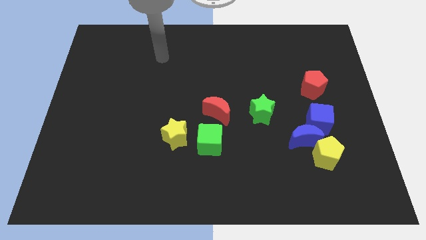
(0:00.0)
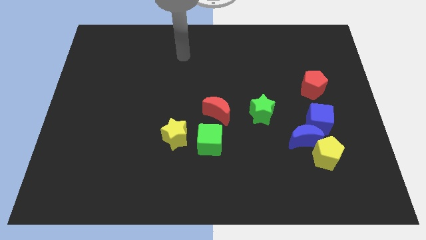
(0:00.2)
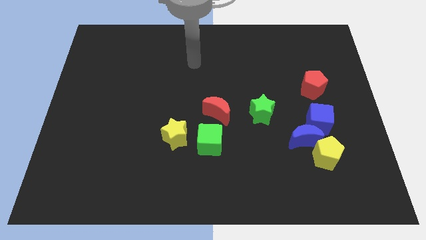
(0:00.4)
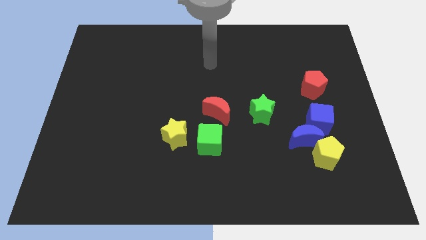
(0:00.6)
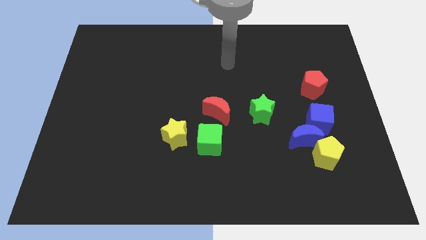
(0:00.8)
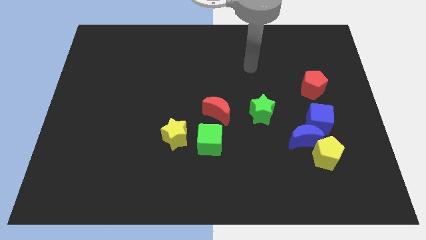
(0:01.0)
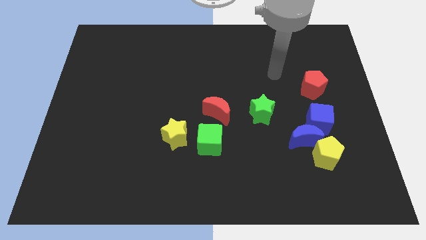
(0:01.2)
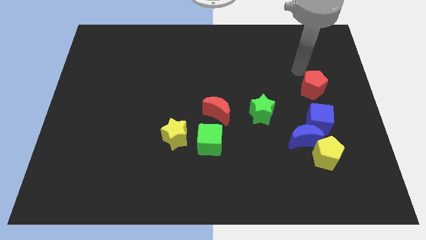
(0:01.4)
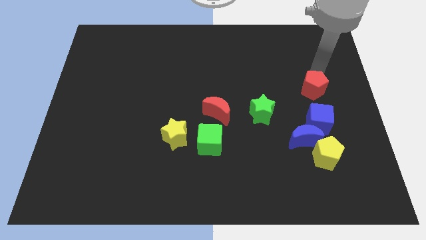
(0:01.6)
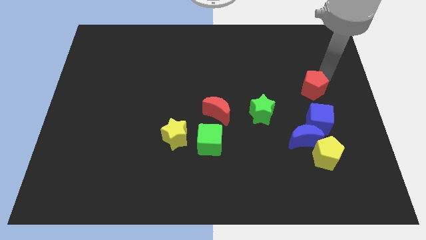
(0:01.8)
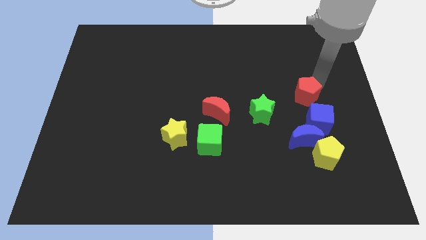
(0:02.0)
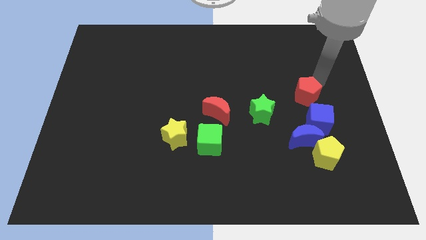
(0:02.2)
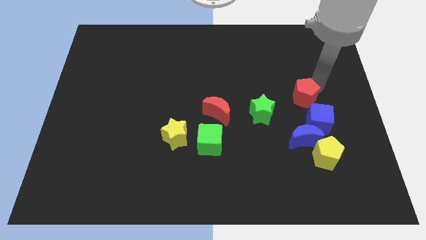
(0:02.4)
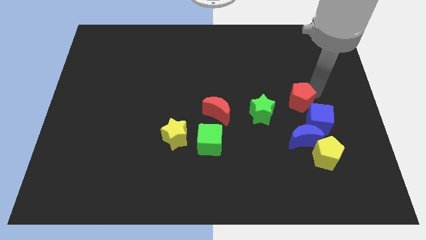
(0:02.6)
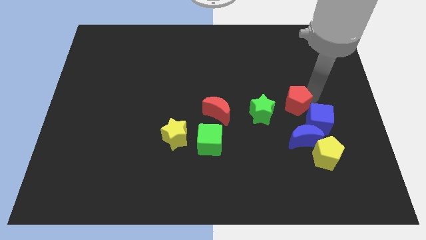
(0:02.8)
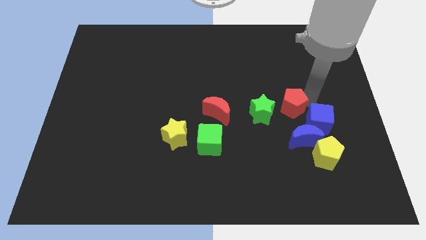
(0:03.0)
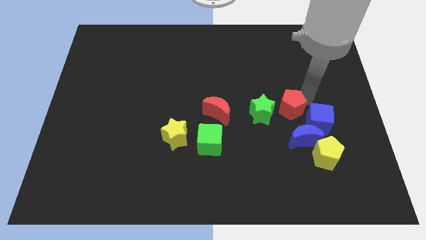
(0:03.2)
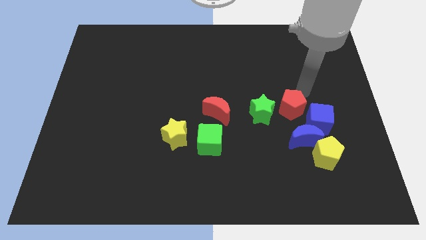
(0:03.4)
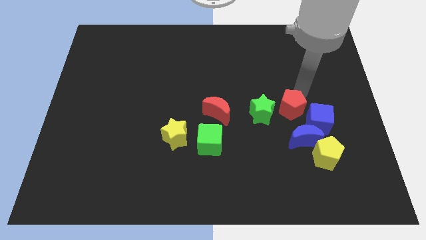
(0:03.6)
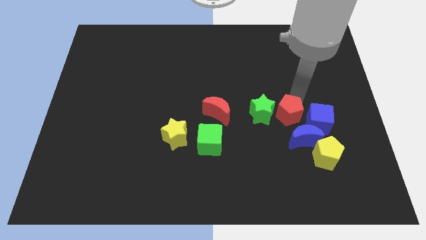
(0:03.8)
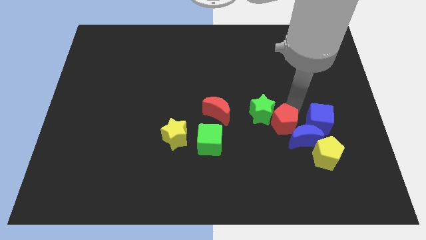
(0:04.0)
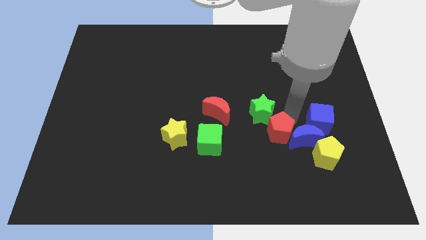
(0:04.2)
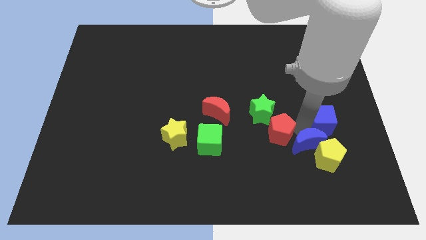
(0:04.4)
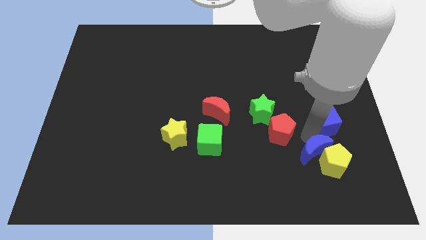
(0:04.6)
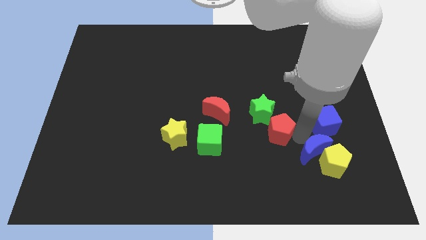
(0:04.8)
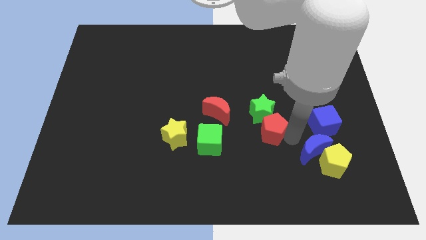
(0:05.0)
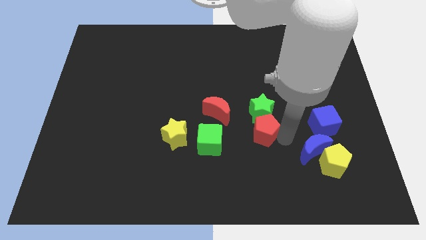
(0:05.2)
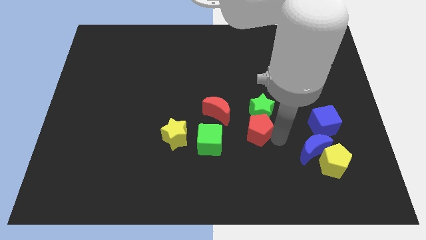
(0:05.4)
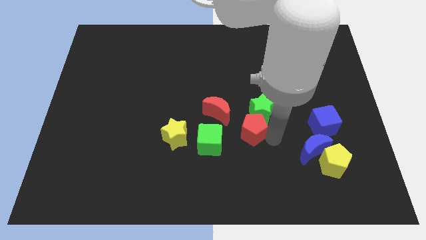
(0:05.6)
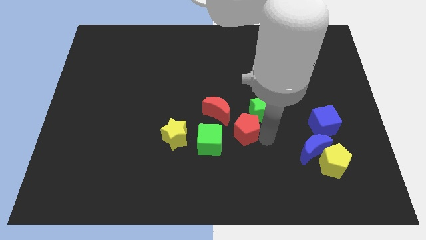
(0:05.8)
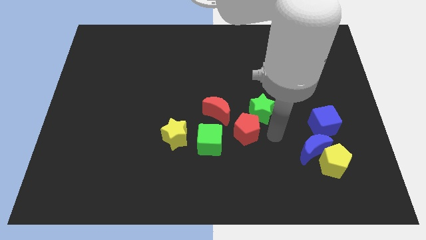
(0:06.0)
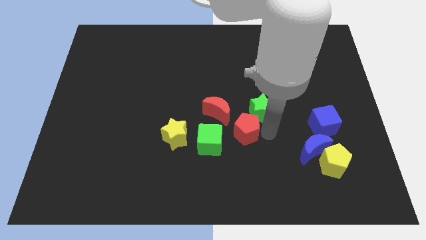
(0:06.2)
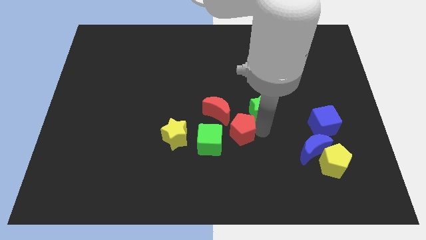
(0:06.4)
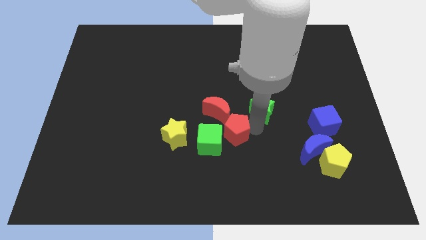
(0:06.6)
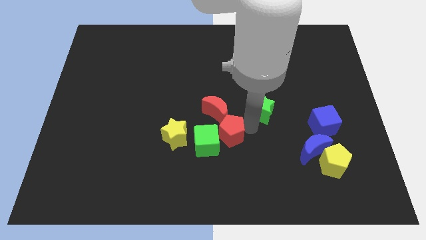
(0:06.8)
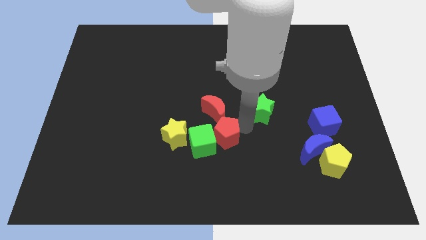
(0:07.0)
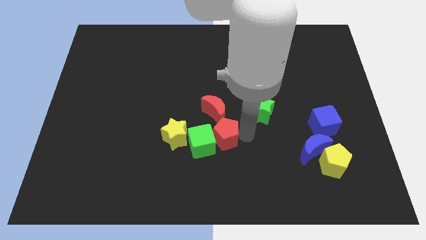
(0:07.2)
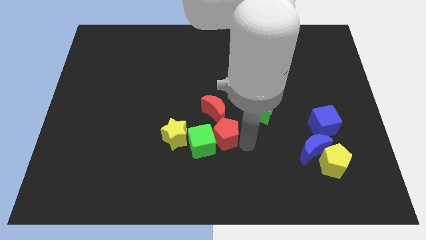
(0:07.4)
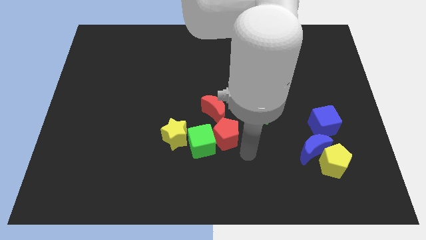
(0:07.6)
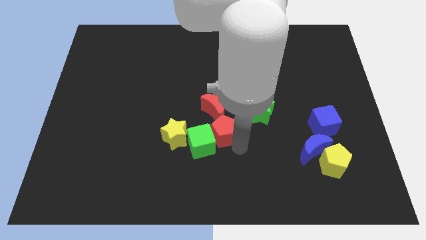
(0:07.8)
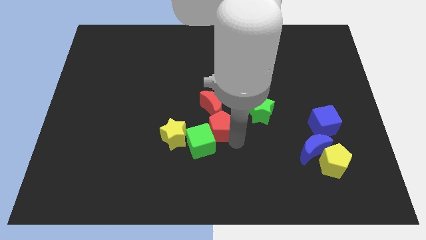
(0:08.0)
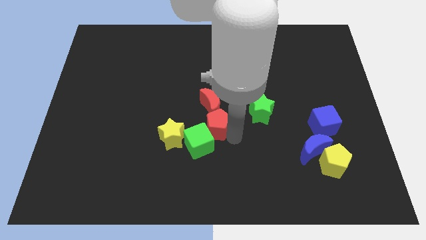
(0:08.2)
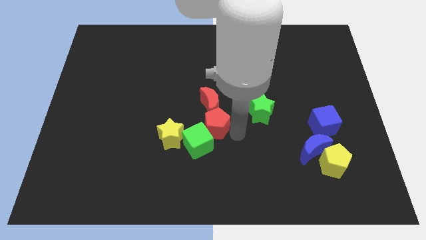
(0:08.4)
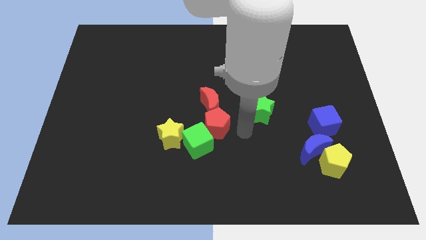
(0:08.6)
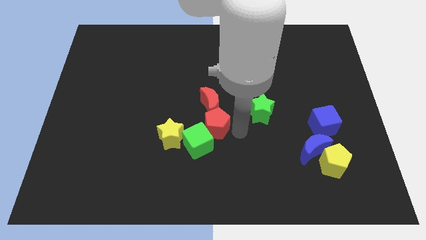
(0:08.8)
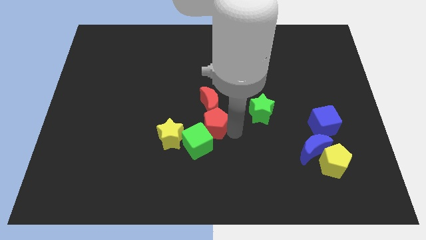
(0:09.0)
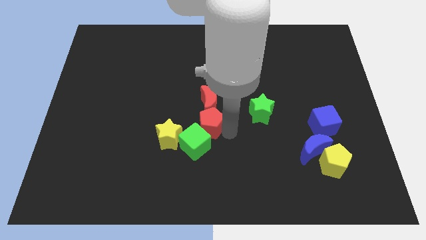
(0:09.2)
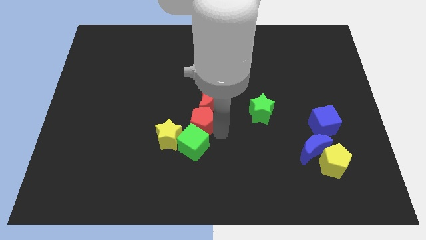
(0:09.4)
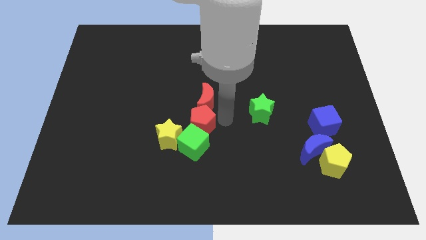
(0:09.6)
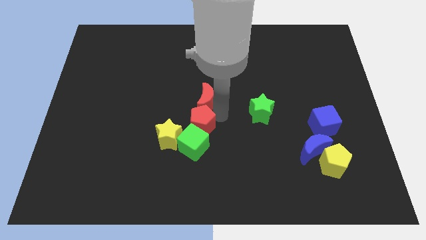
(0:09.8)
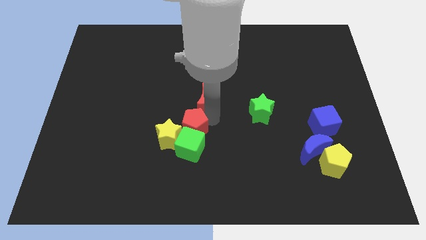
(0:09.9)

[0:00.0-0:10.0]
push the red pentagon towards the yellow star

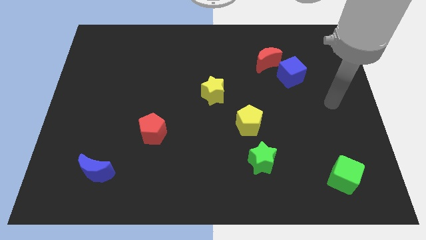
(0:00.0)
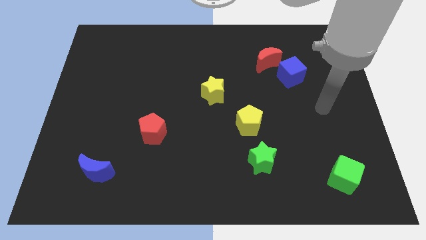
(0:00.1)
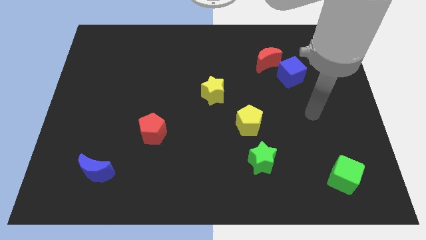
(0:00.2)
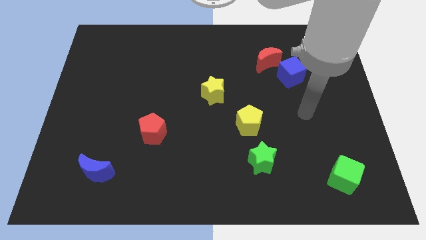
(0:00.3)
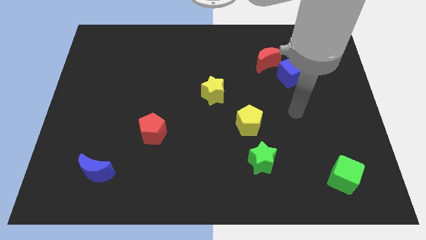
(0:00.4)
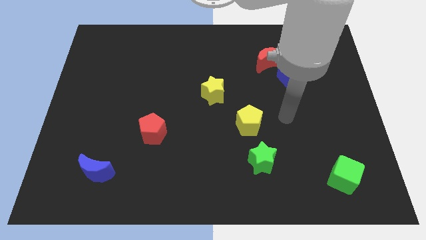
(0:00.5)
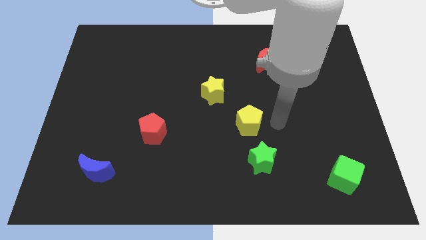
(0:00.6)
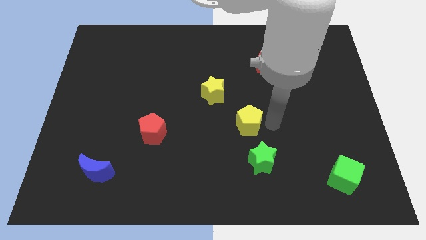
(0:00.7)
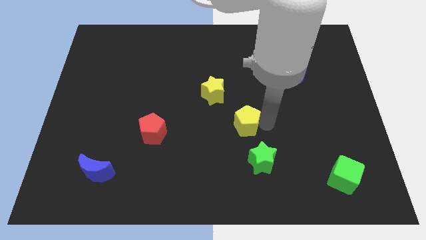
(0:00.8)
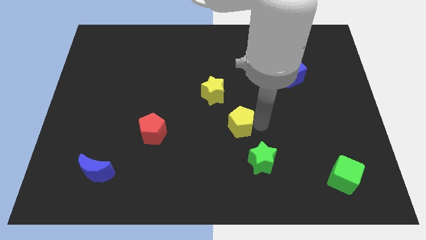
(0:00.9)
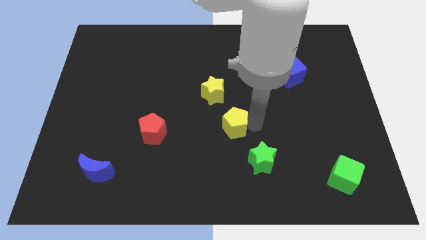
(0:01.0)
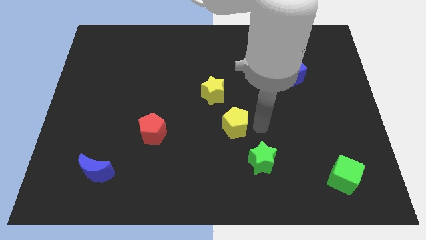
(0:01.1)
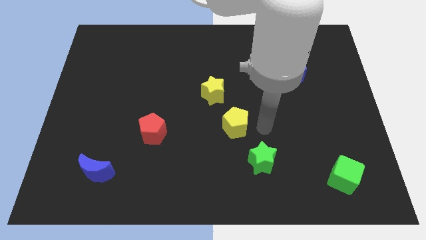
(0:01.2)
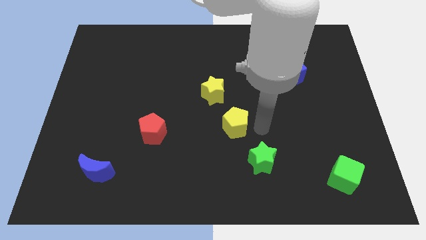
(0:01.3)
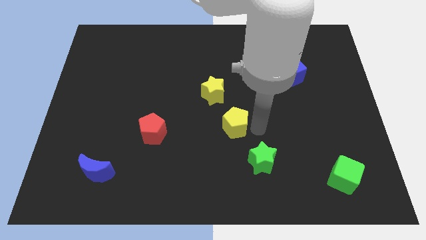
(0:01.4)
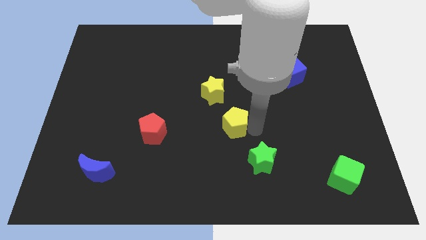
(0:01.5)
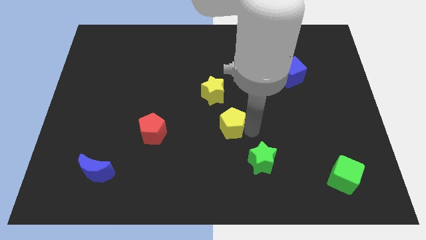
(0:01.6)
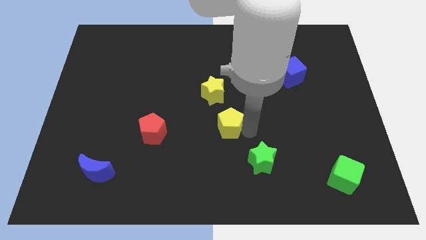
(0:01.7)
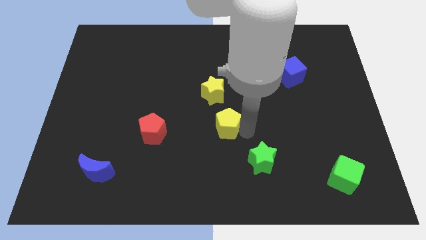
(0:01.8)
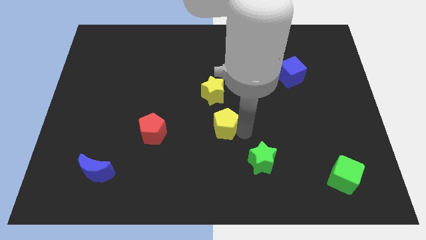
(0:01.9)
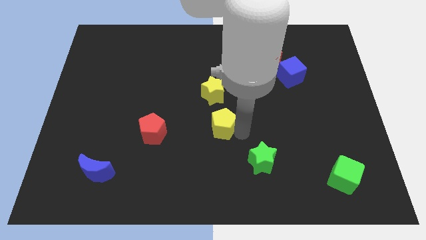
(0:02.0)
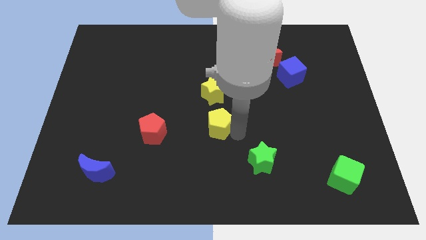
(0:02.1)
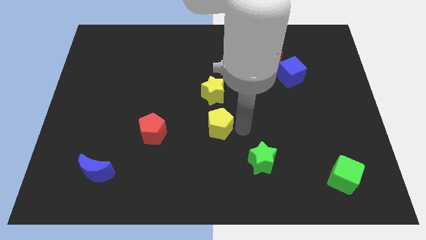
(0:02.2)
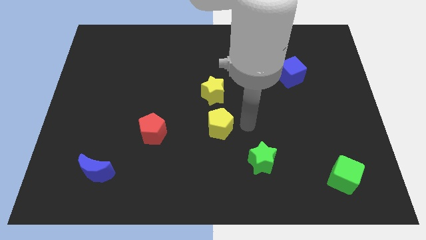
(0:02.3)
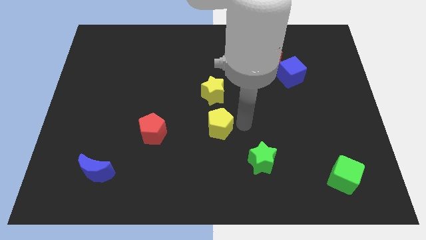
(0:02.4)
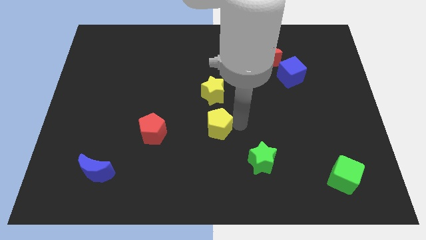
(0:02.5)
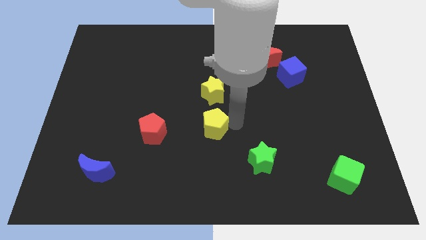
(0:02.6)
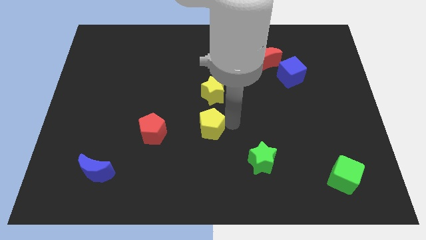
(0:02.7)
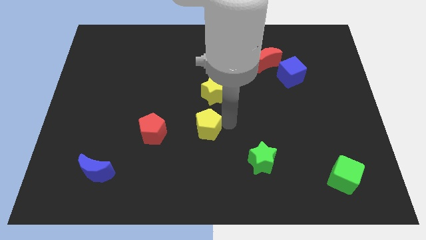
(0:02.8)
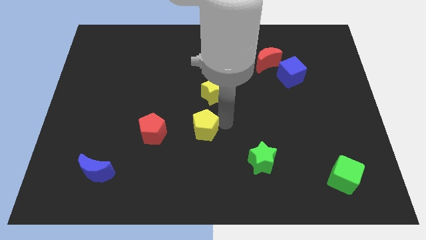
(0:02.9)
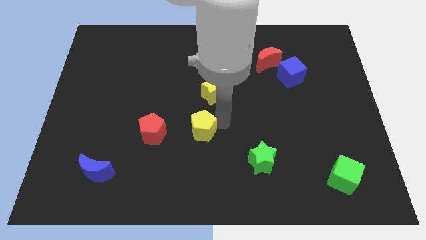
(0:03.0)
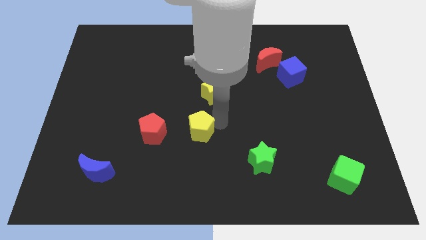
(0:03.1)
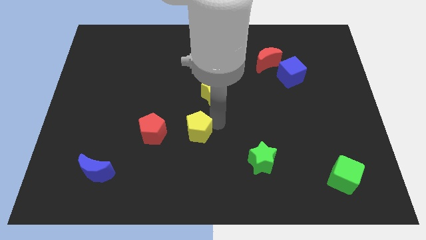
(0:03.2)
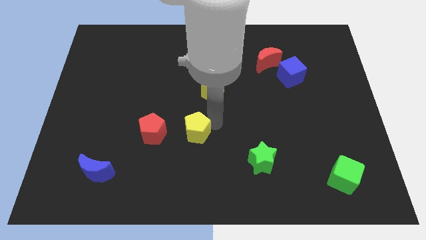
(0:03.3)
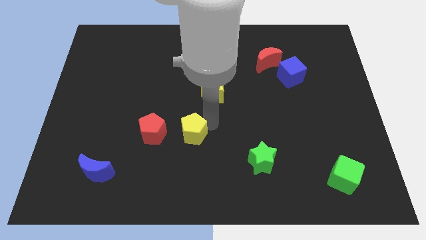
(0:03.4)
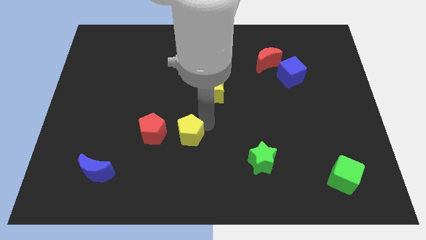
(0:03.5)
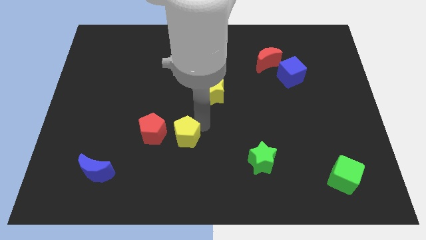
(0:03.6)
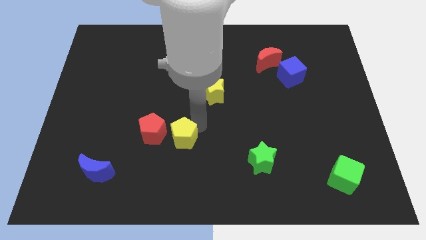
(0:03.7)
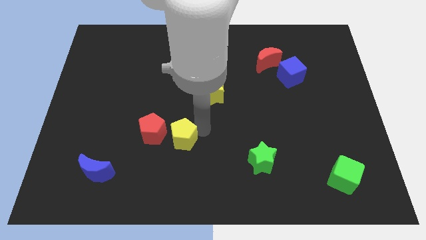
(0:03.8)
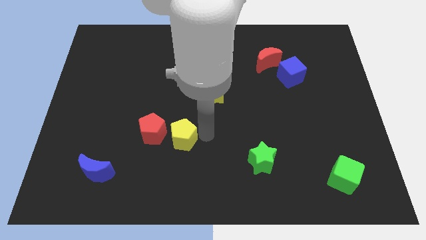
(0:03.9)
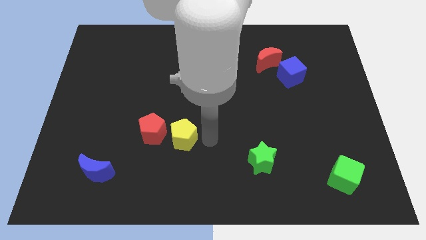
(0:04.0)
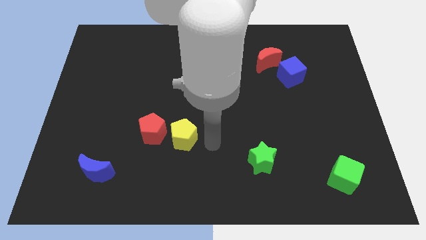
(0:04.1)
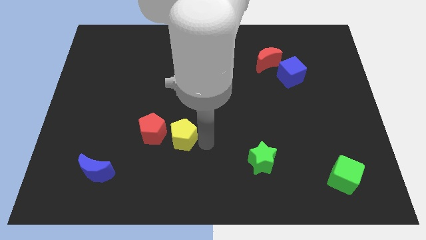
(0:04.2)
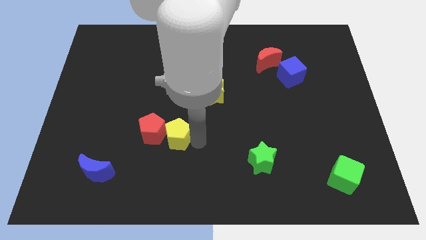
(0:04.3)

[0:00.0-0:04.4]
put the yellow pentagon to the red pentagon
